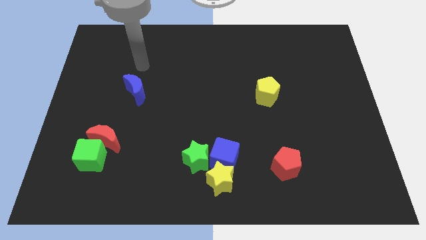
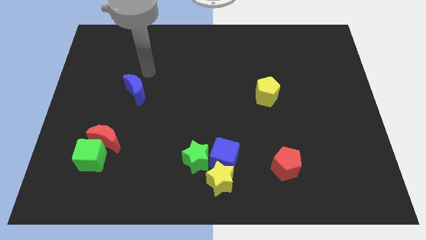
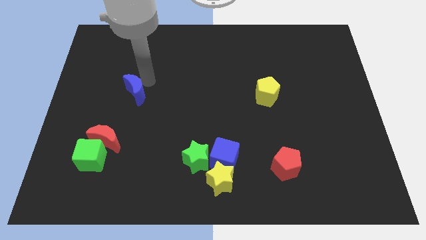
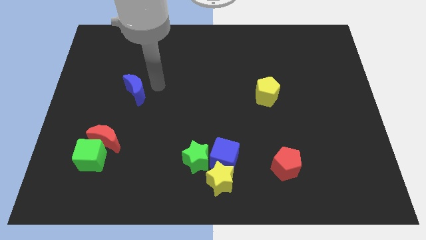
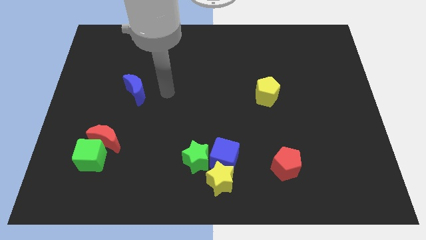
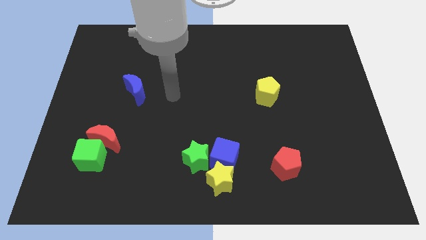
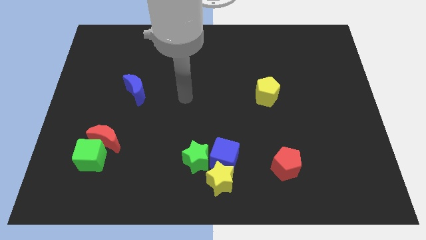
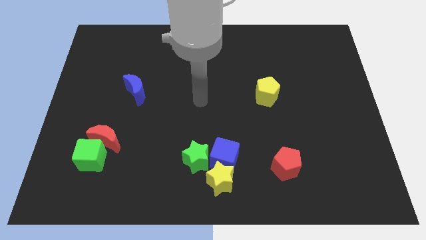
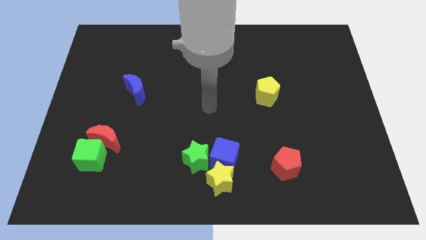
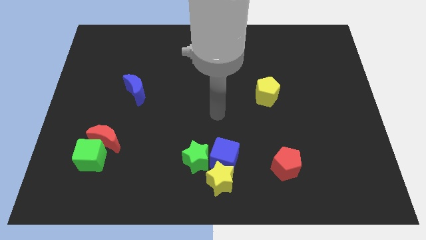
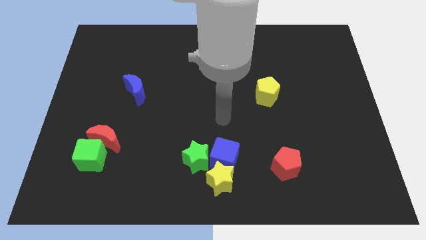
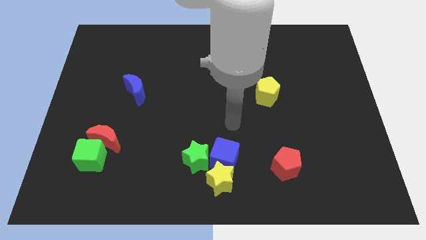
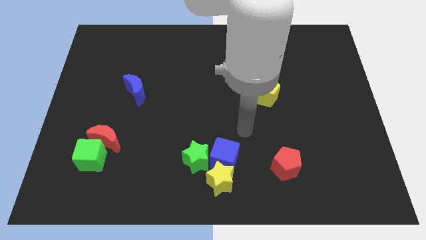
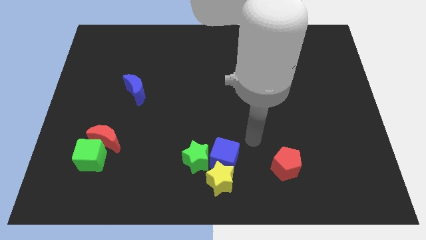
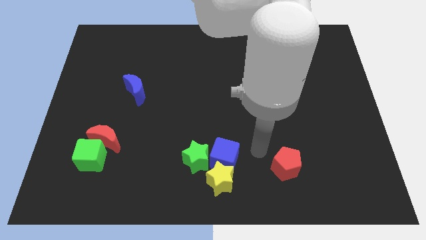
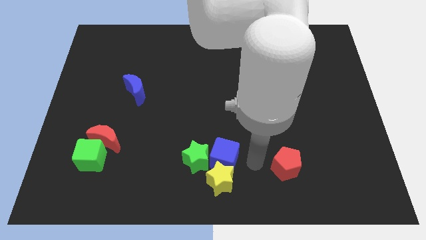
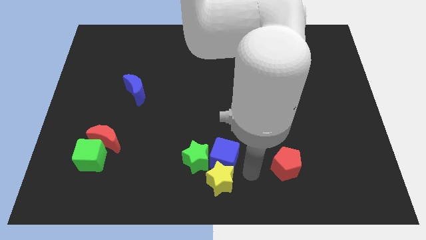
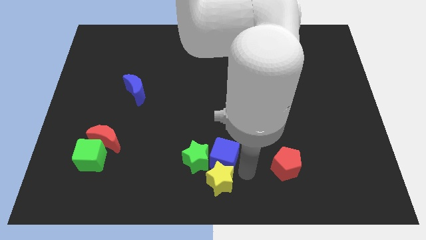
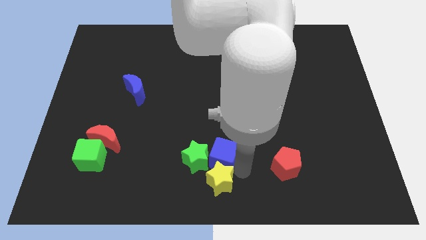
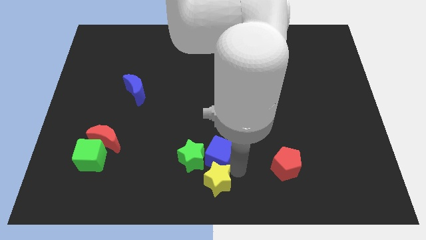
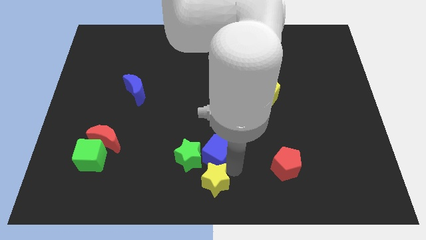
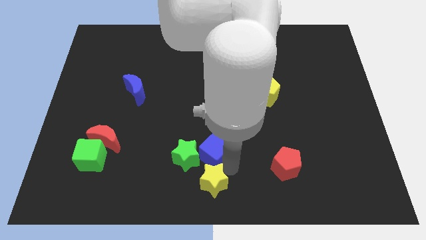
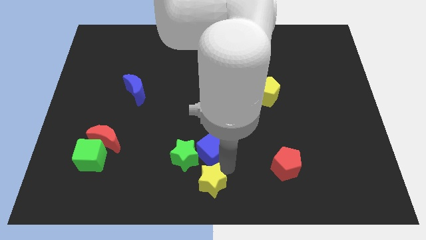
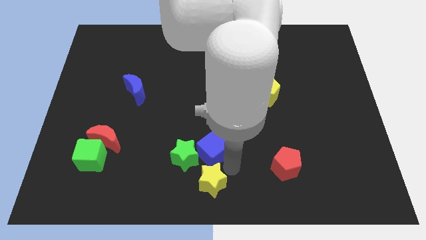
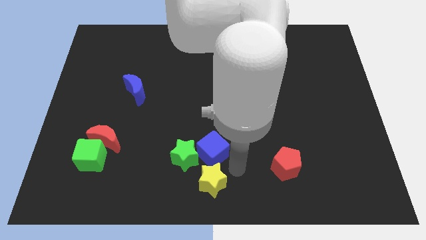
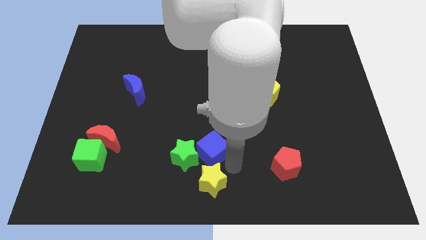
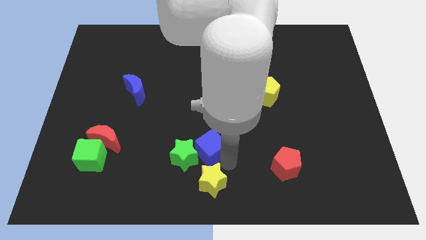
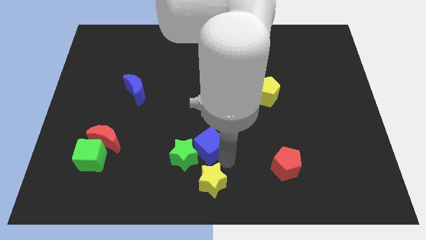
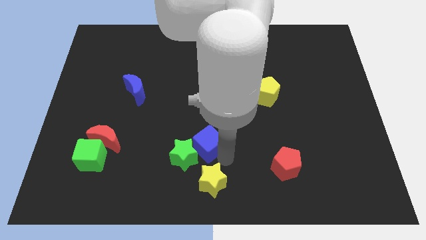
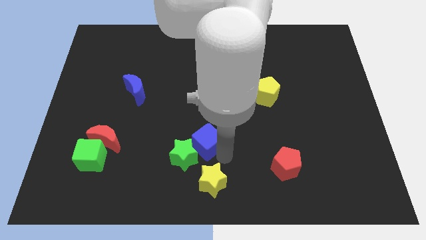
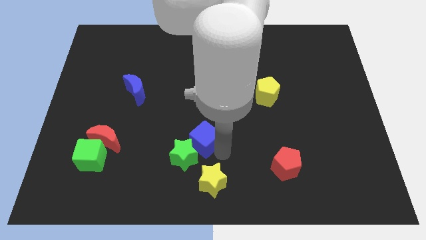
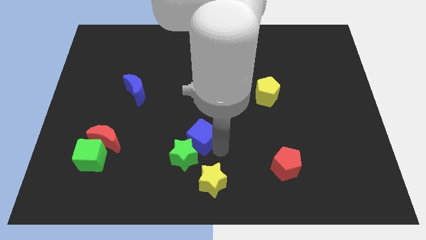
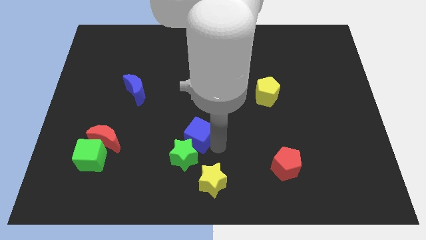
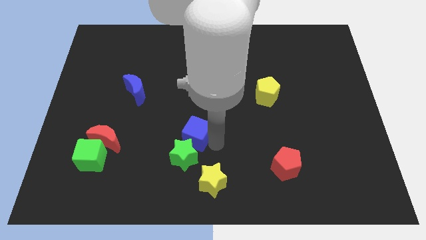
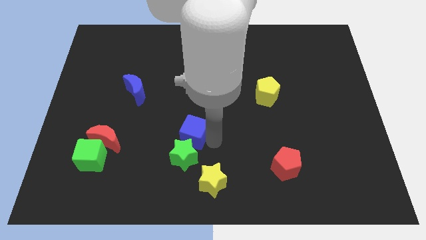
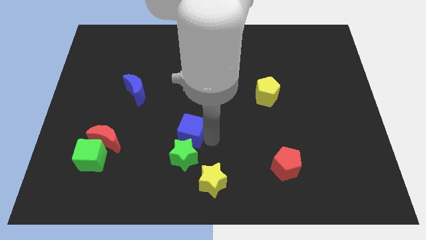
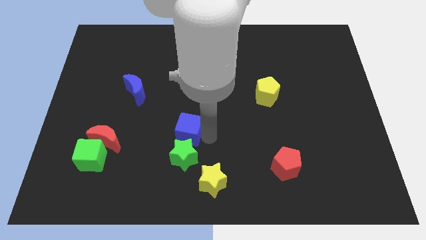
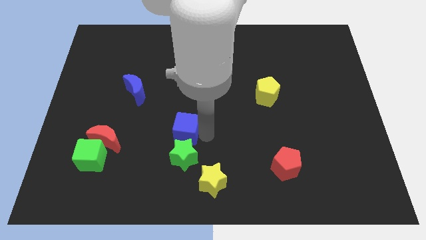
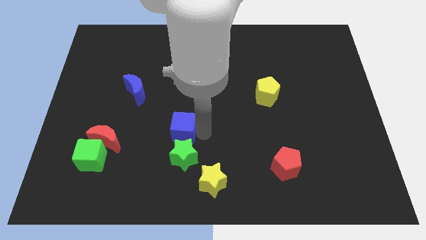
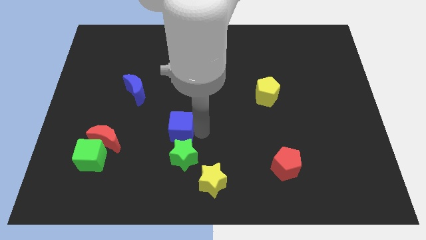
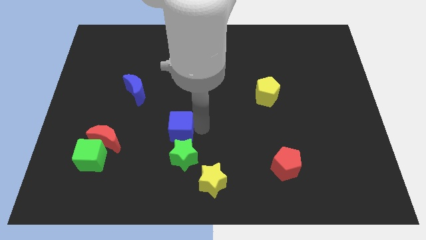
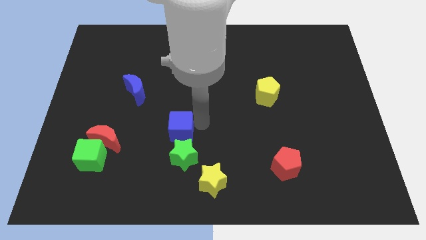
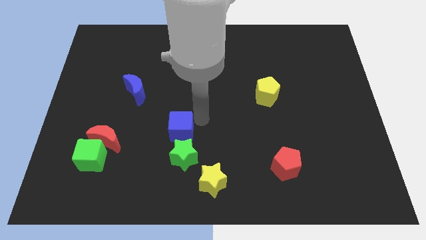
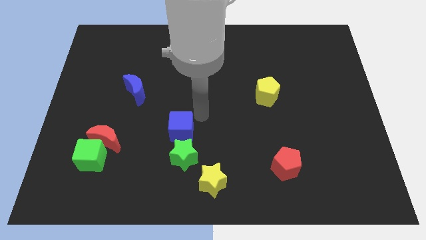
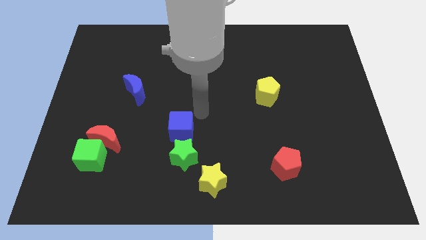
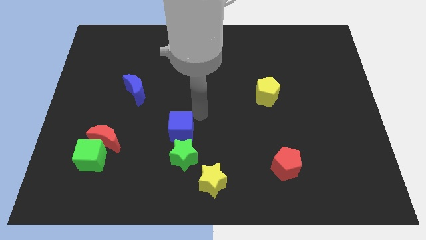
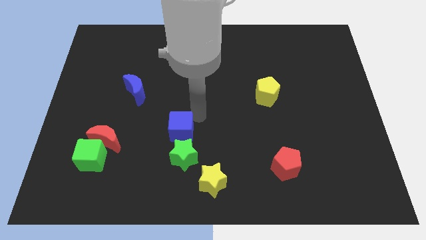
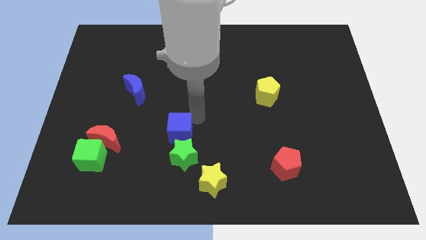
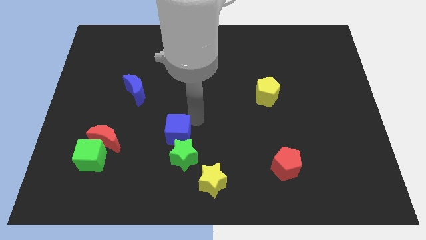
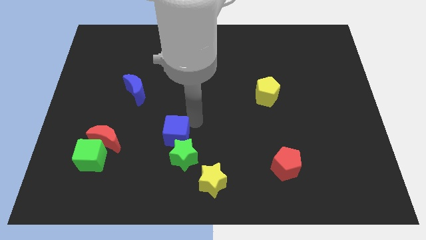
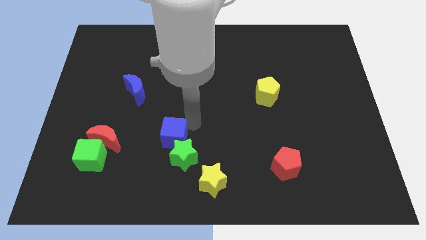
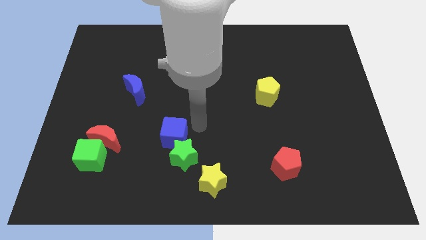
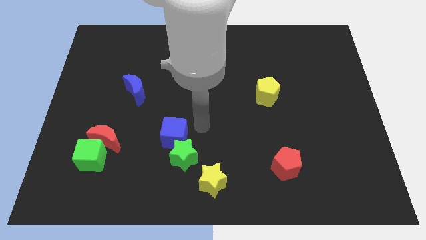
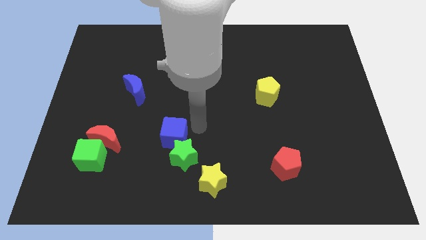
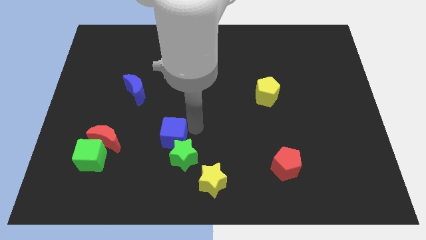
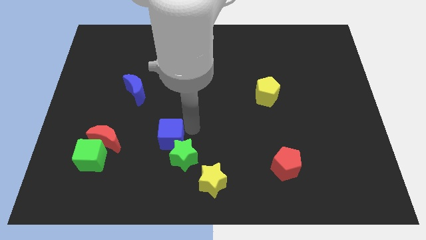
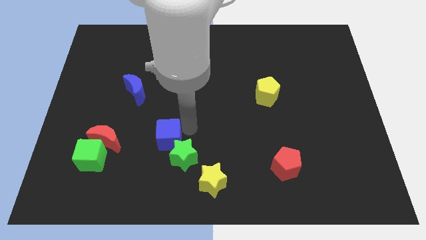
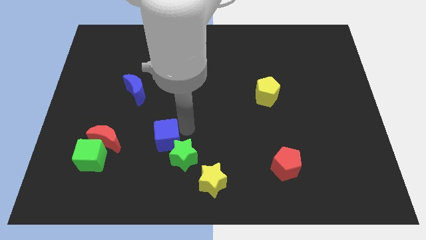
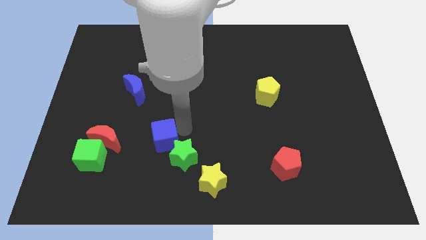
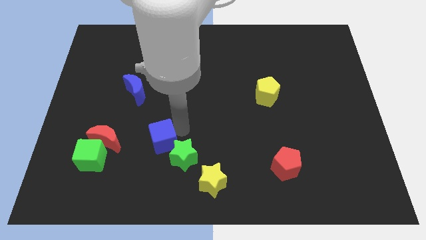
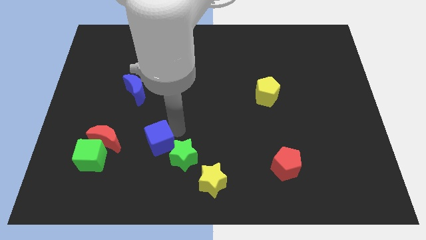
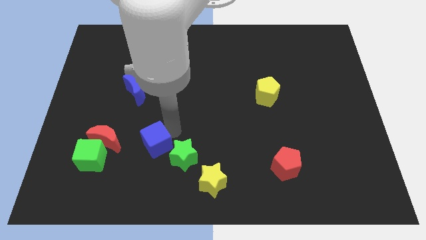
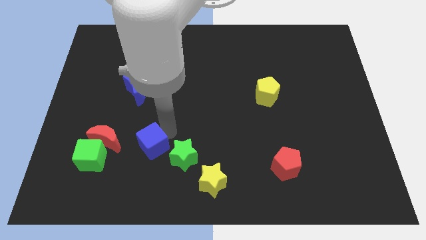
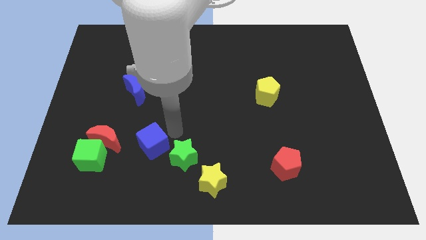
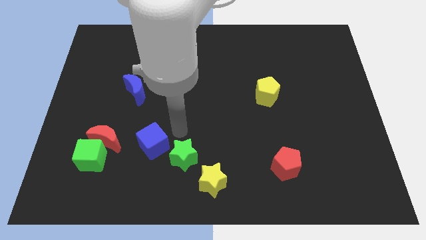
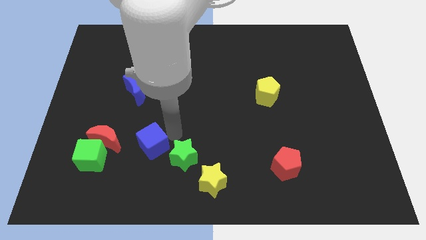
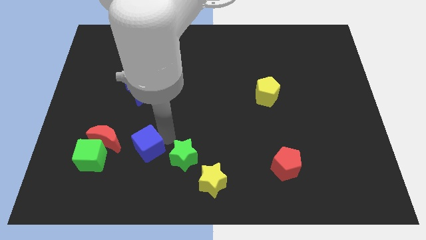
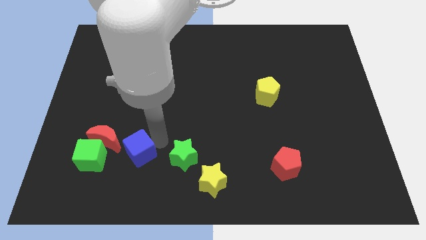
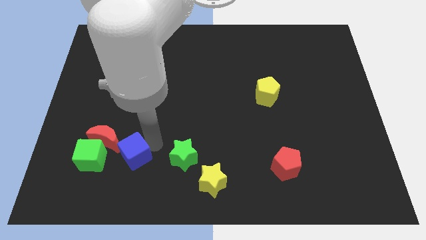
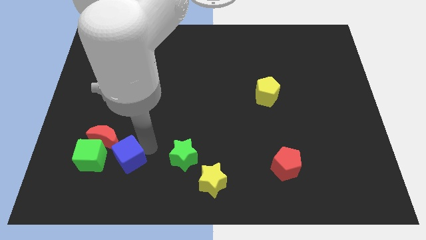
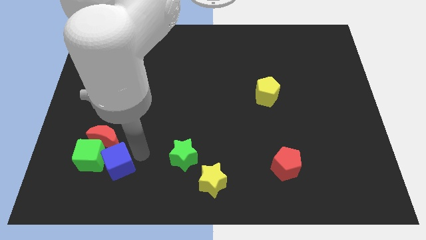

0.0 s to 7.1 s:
move the blue cube next to the green cube

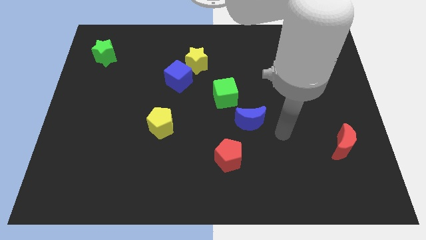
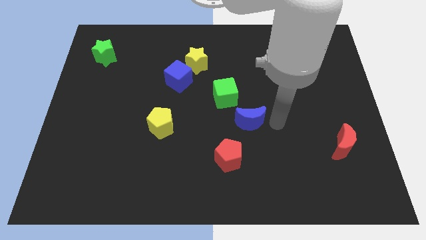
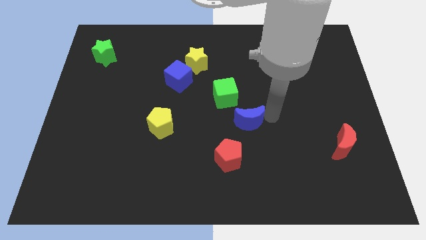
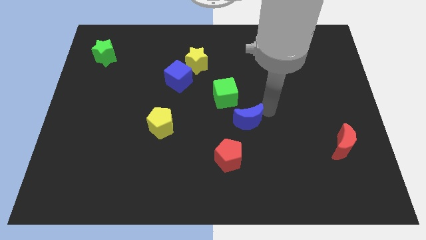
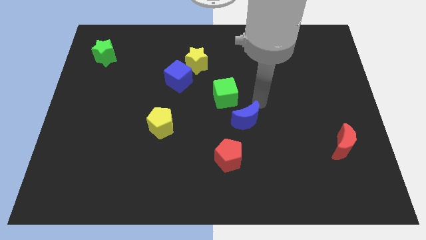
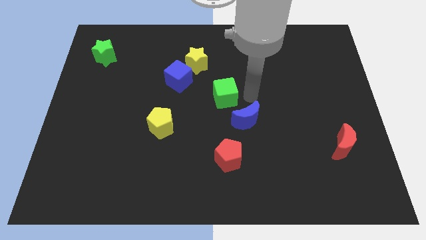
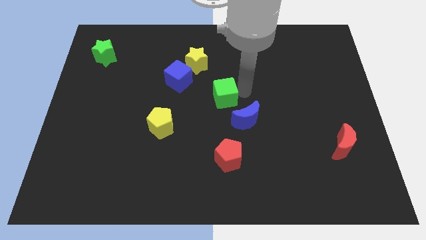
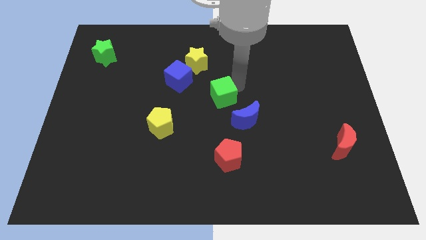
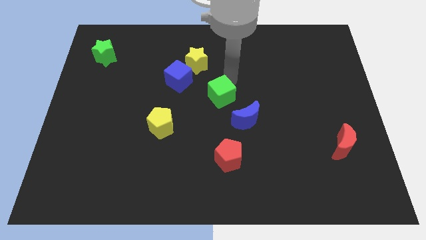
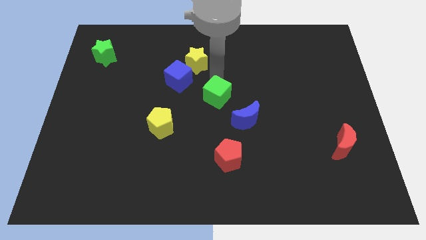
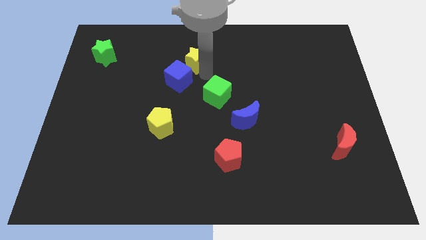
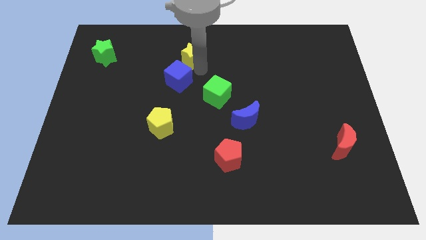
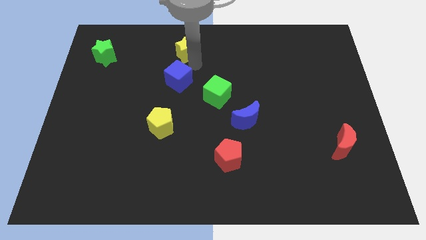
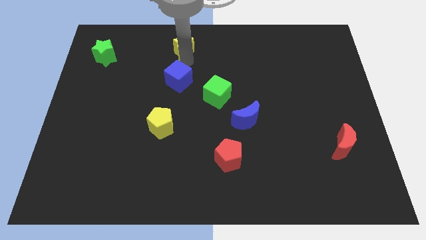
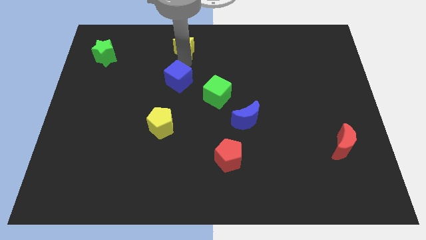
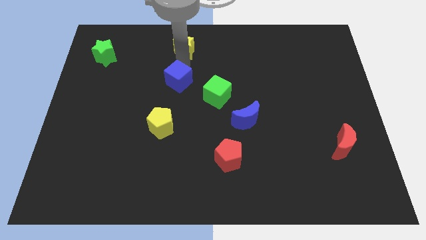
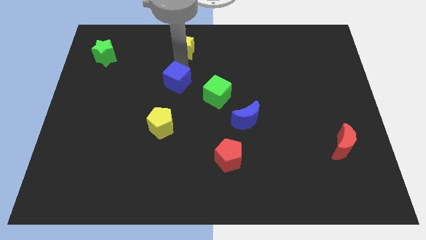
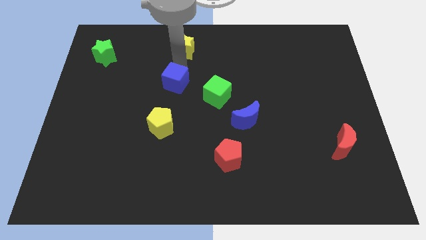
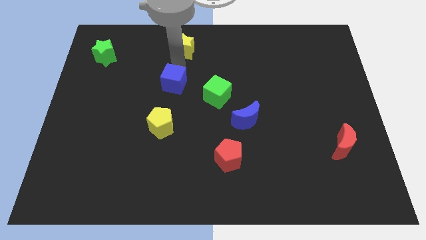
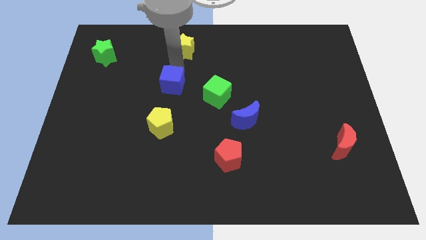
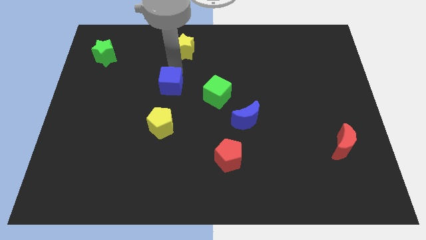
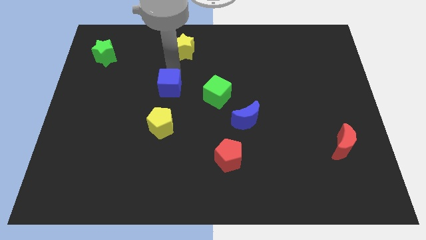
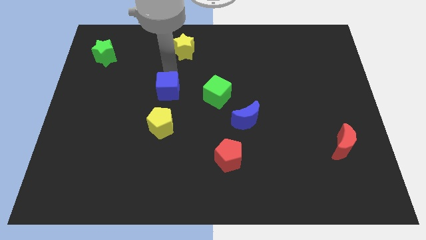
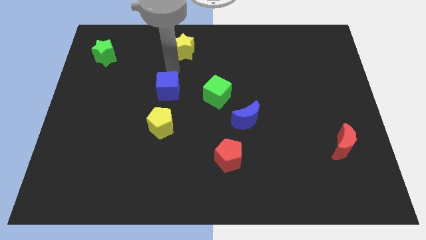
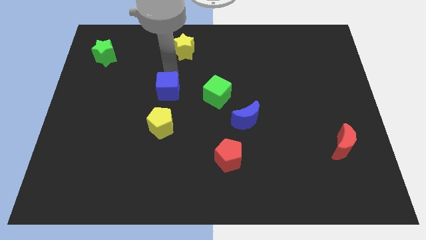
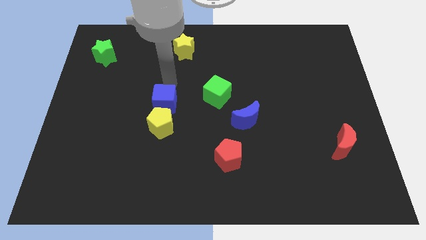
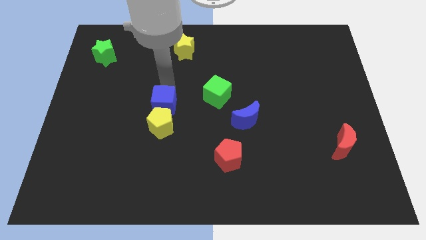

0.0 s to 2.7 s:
move the blue cube towards the yellow pentagon
